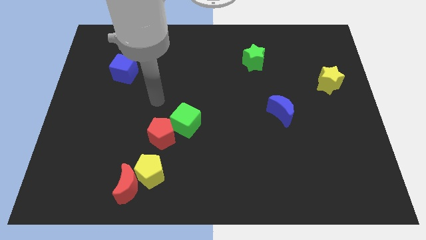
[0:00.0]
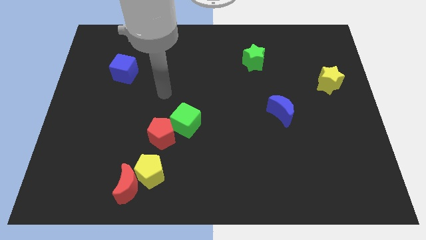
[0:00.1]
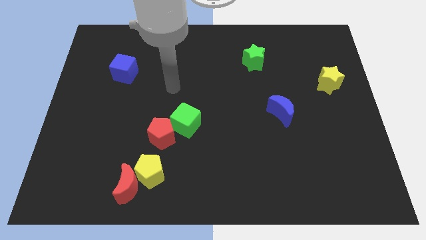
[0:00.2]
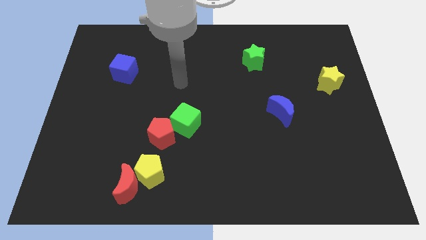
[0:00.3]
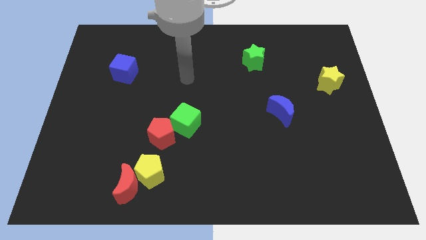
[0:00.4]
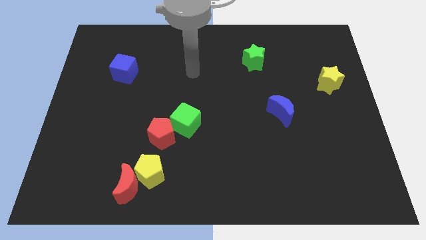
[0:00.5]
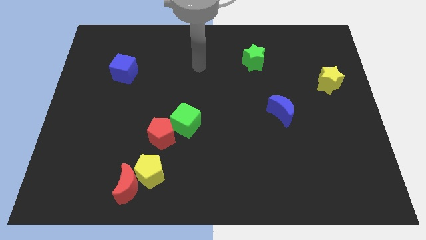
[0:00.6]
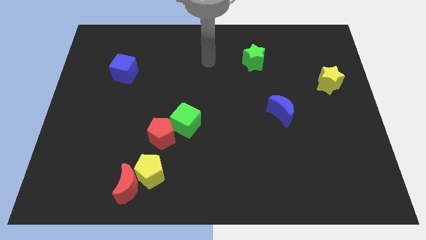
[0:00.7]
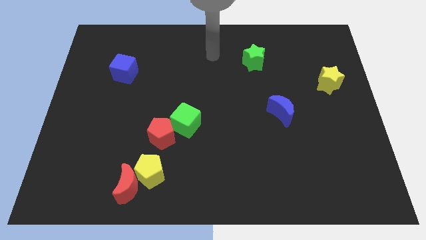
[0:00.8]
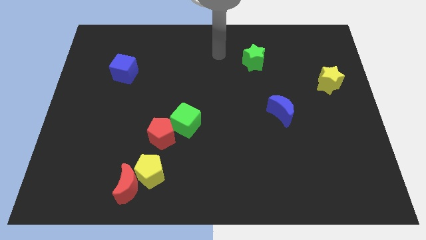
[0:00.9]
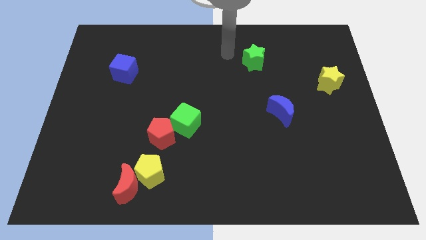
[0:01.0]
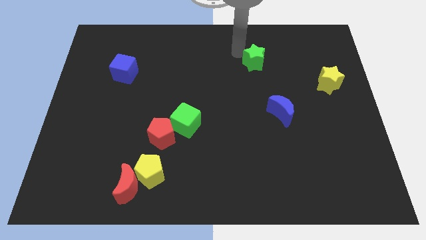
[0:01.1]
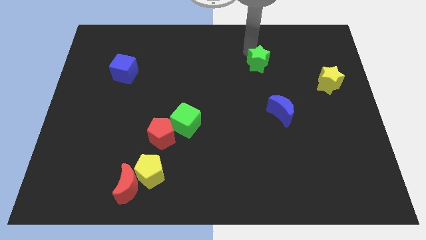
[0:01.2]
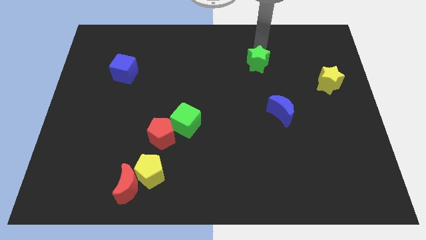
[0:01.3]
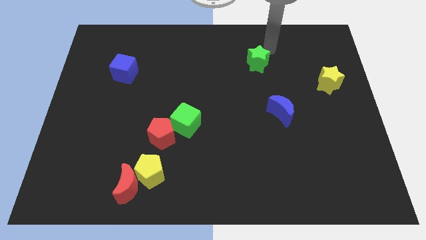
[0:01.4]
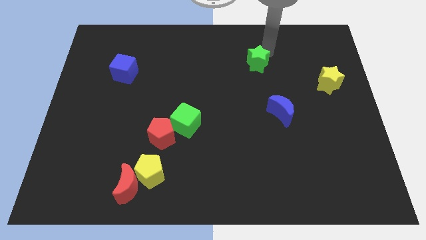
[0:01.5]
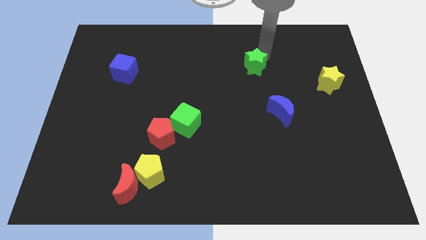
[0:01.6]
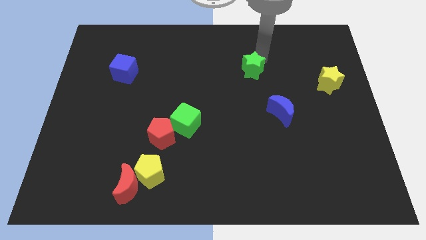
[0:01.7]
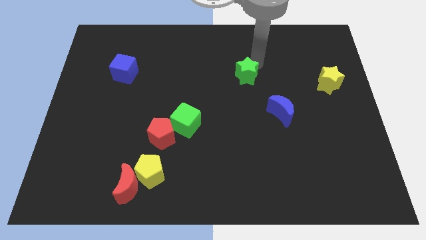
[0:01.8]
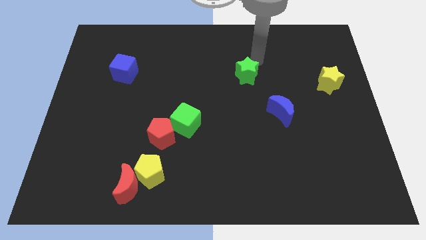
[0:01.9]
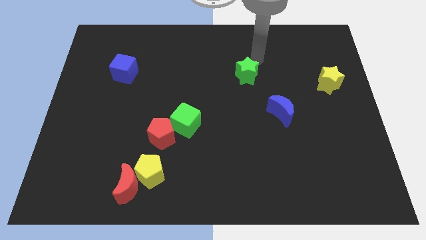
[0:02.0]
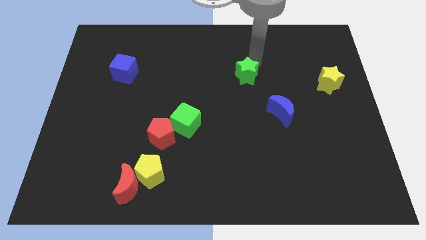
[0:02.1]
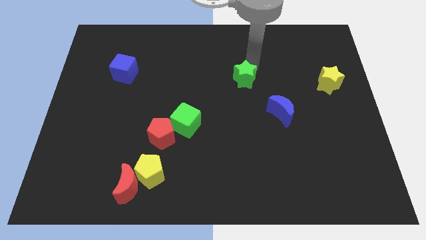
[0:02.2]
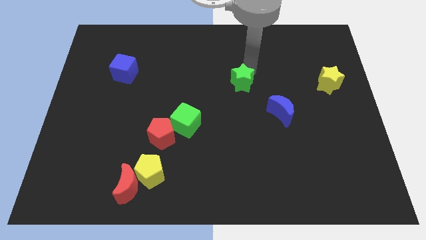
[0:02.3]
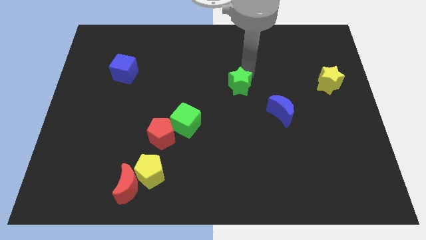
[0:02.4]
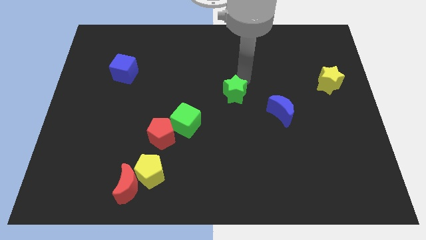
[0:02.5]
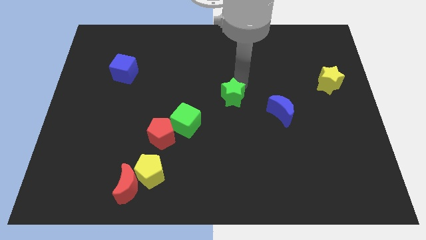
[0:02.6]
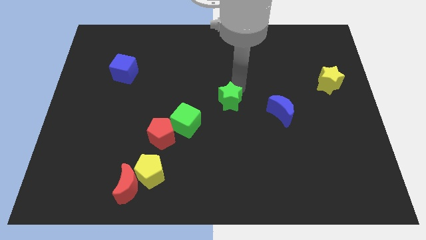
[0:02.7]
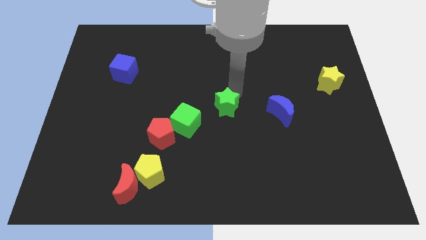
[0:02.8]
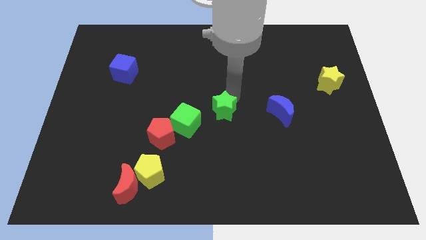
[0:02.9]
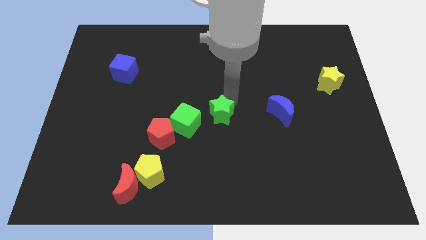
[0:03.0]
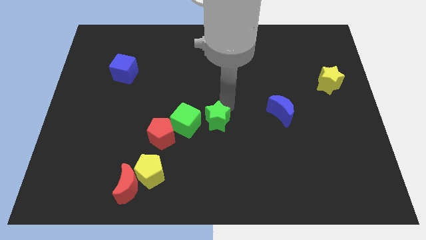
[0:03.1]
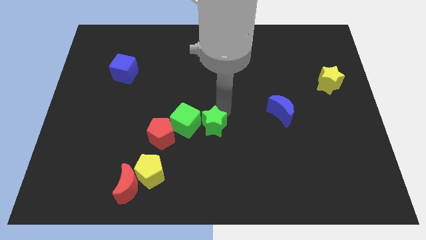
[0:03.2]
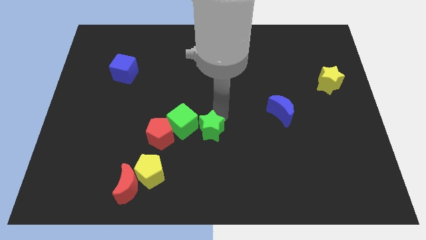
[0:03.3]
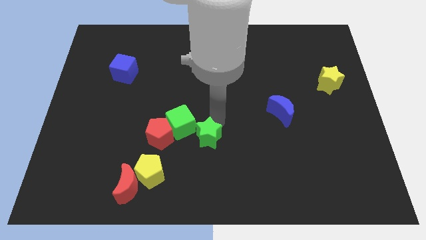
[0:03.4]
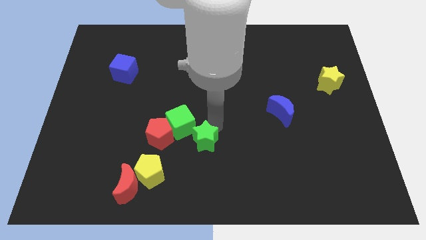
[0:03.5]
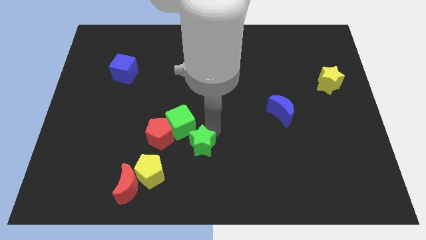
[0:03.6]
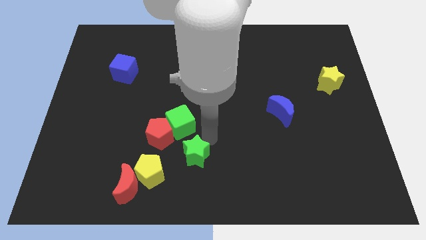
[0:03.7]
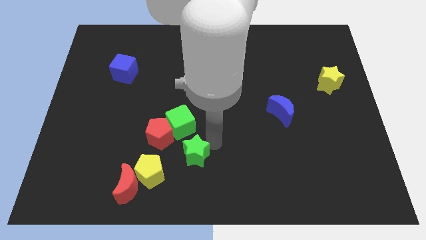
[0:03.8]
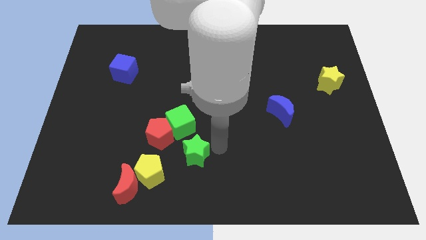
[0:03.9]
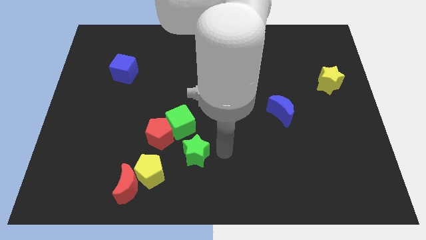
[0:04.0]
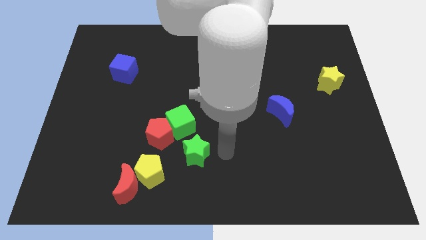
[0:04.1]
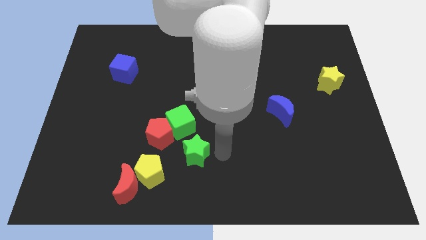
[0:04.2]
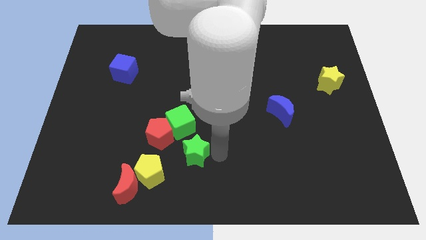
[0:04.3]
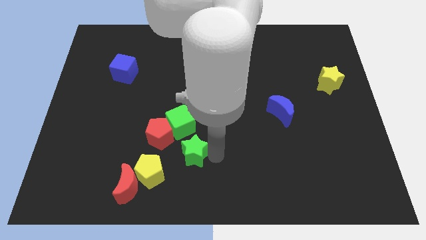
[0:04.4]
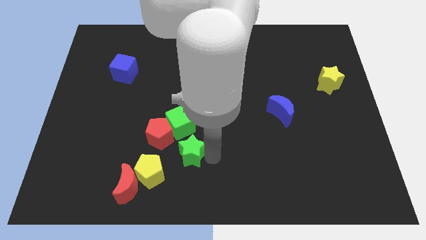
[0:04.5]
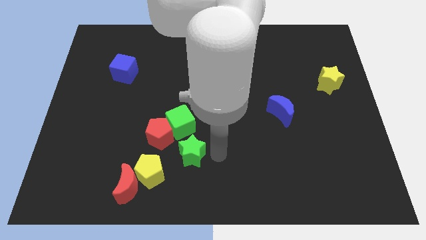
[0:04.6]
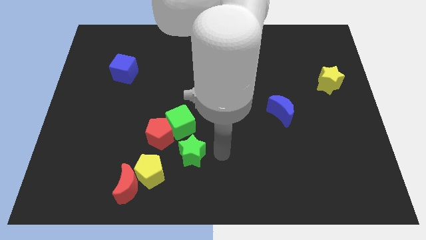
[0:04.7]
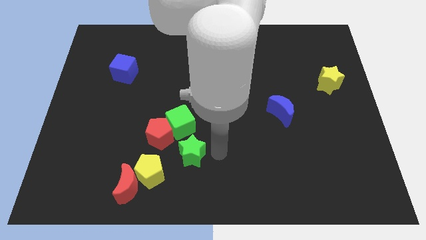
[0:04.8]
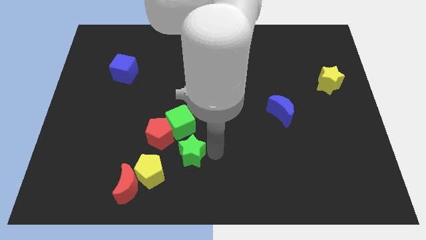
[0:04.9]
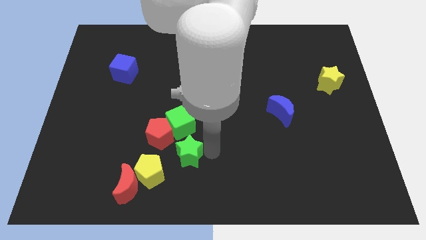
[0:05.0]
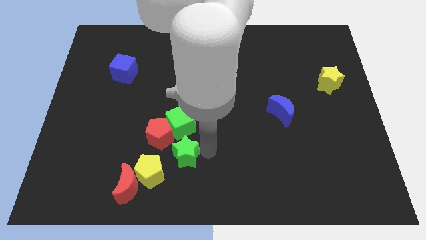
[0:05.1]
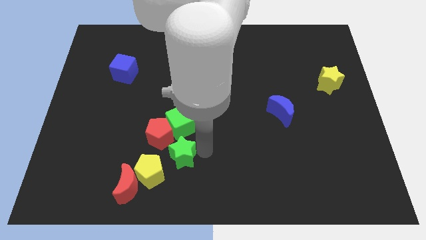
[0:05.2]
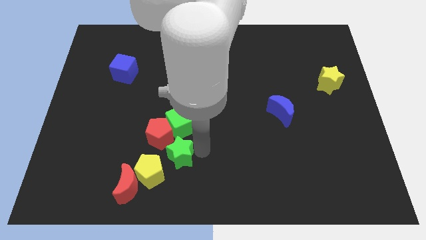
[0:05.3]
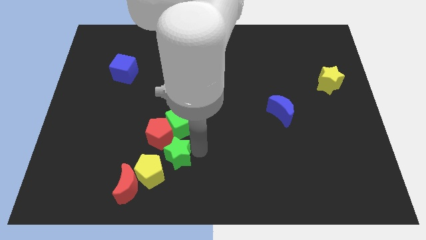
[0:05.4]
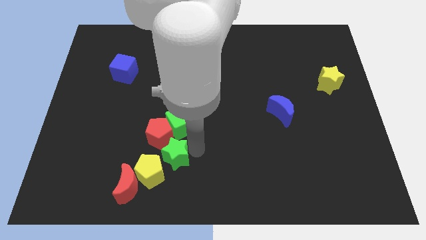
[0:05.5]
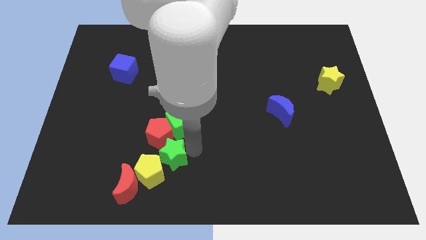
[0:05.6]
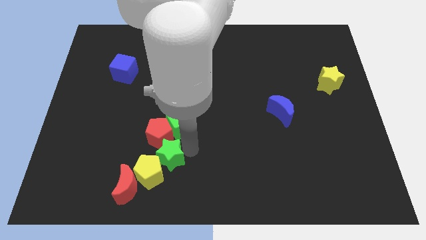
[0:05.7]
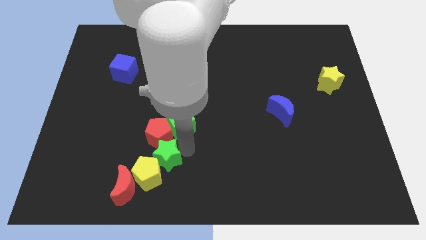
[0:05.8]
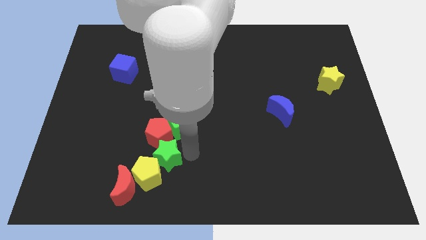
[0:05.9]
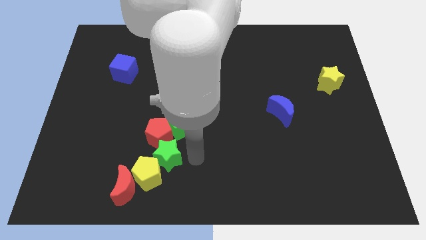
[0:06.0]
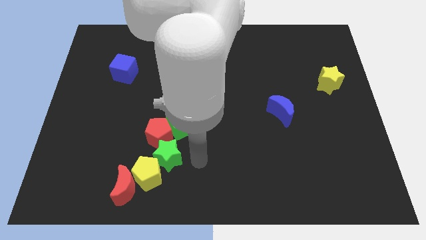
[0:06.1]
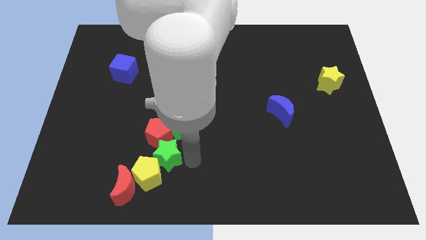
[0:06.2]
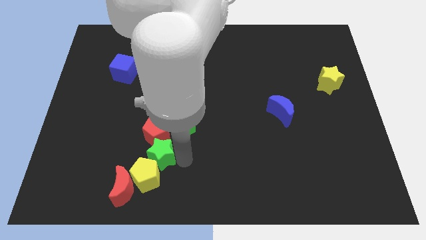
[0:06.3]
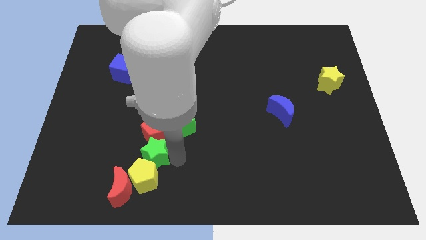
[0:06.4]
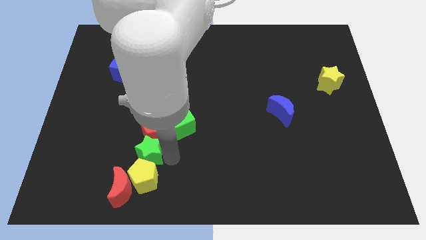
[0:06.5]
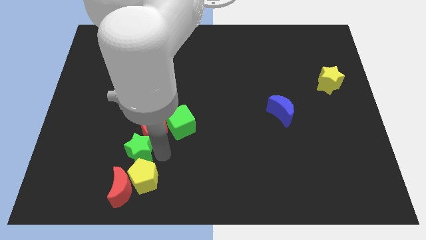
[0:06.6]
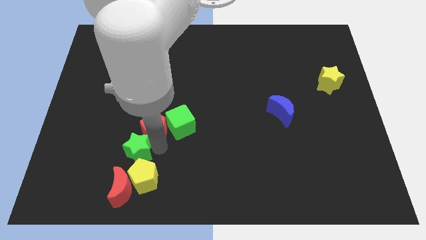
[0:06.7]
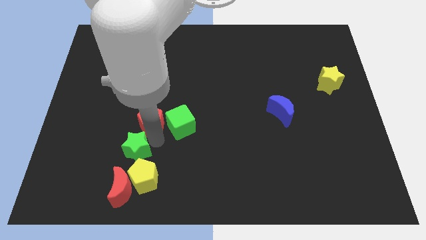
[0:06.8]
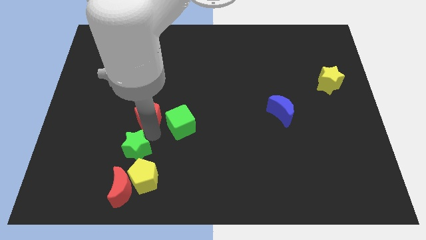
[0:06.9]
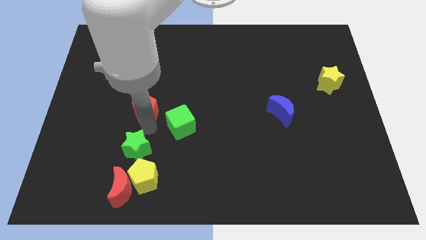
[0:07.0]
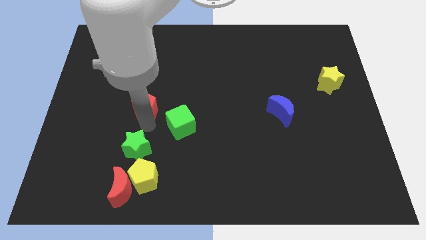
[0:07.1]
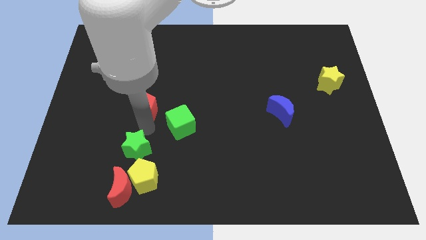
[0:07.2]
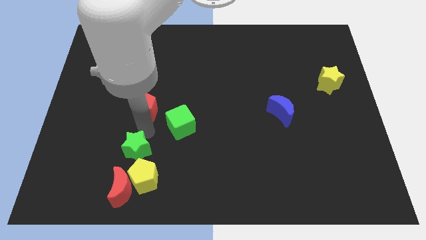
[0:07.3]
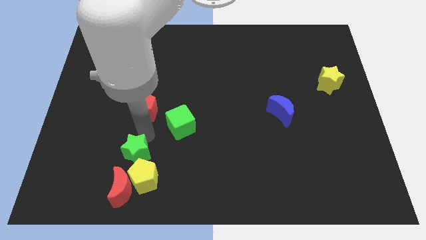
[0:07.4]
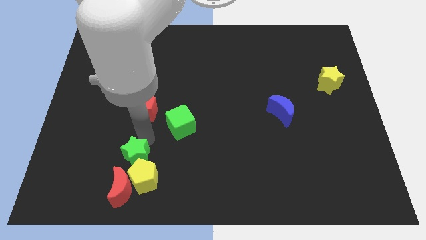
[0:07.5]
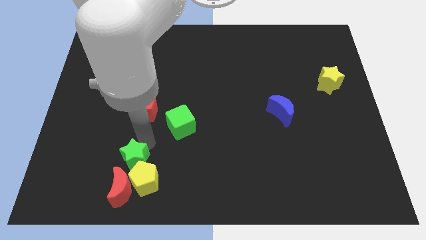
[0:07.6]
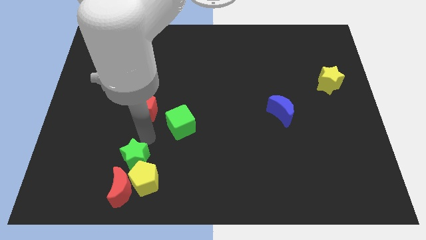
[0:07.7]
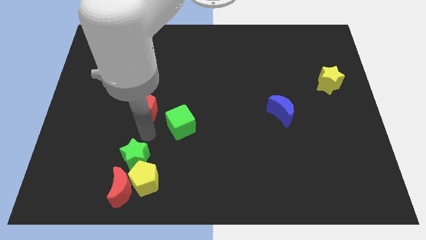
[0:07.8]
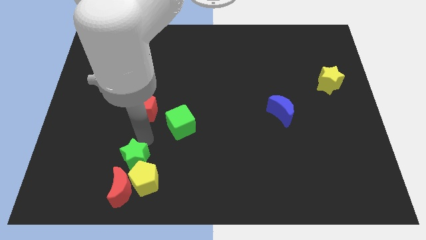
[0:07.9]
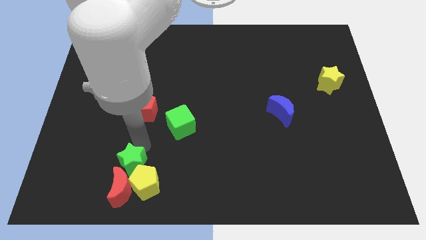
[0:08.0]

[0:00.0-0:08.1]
put the green star close to the red moon
